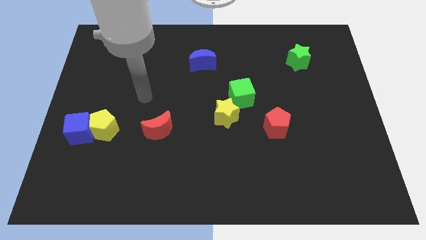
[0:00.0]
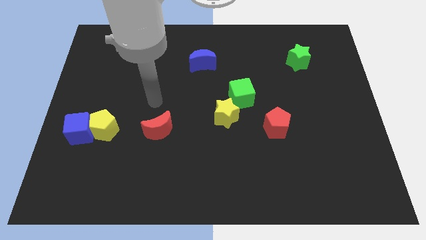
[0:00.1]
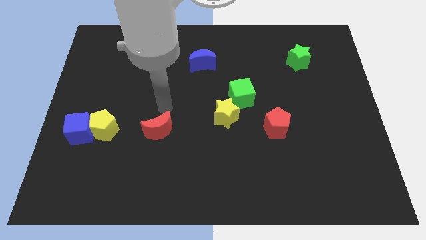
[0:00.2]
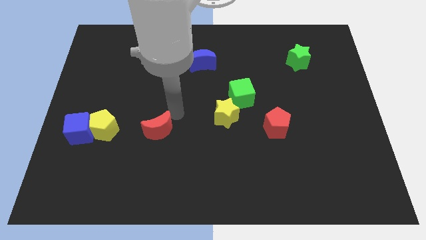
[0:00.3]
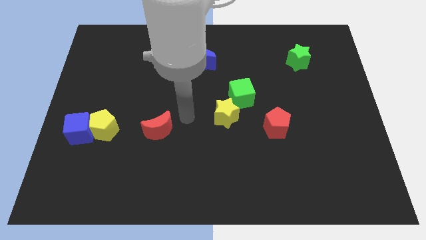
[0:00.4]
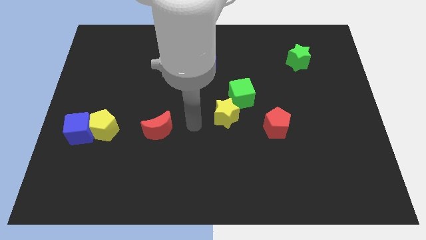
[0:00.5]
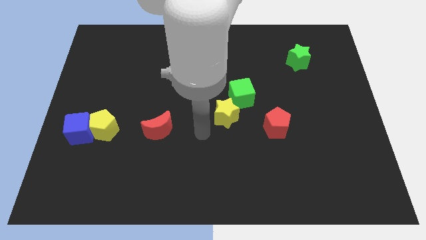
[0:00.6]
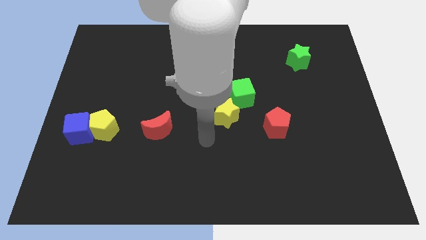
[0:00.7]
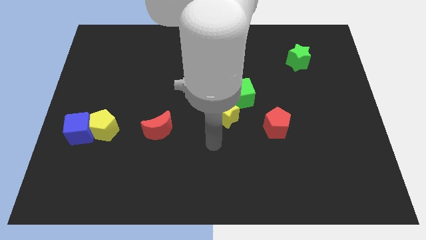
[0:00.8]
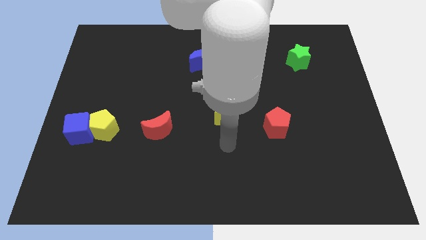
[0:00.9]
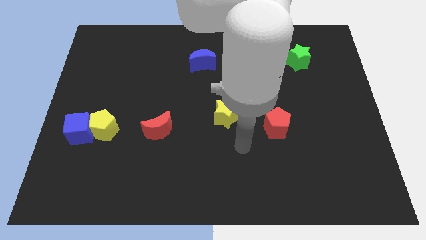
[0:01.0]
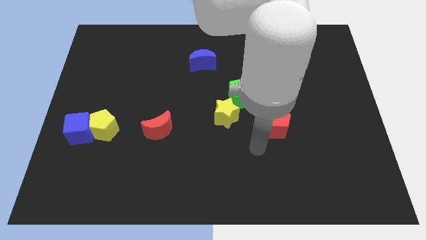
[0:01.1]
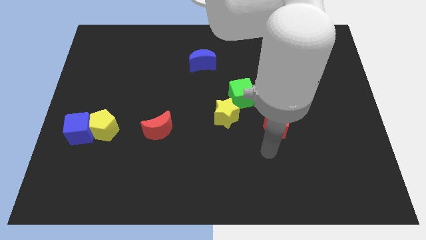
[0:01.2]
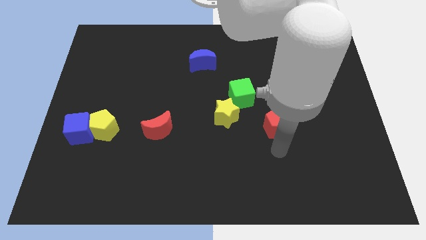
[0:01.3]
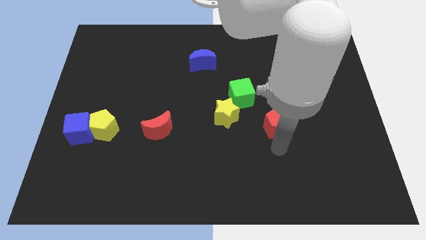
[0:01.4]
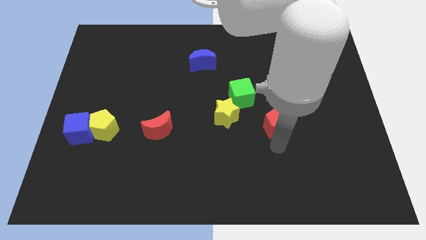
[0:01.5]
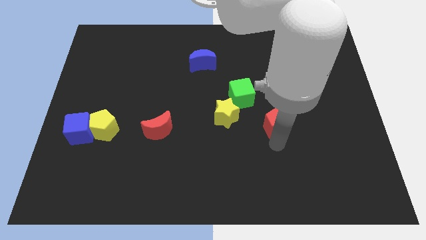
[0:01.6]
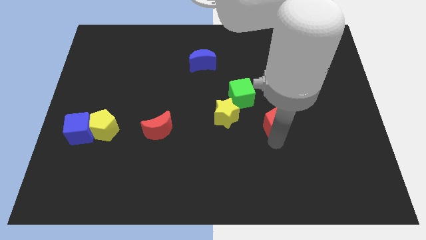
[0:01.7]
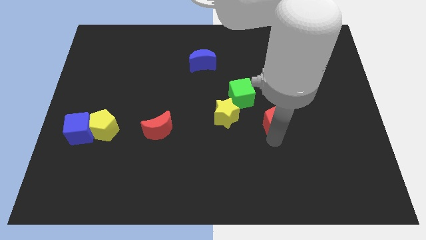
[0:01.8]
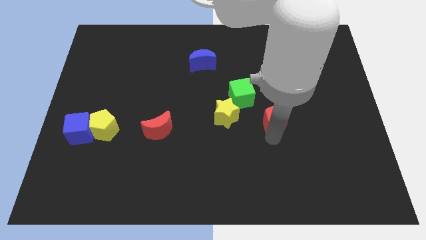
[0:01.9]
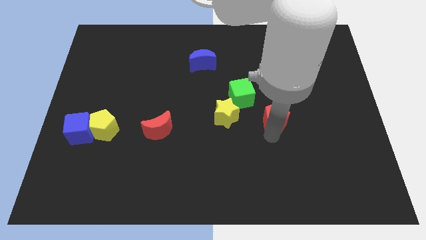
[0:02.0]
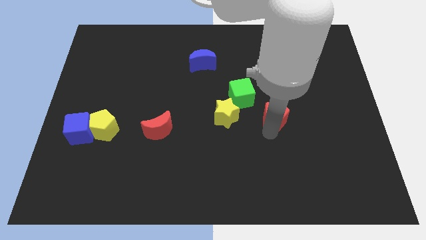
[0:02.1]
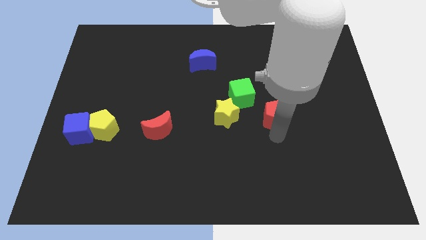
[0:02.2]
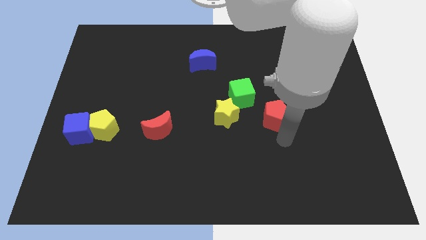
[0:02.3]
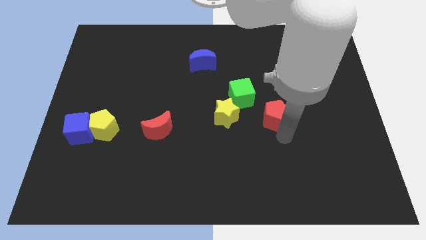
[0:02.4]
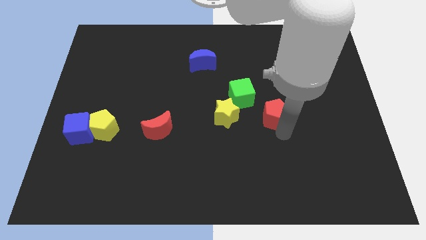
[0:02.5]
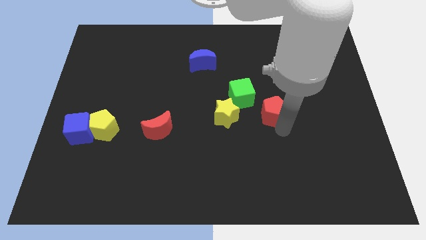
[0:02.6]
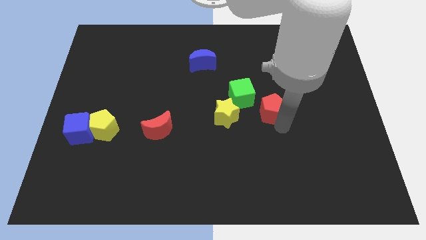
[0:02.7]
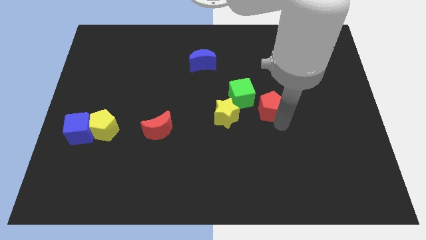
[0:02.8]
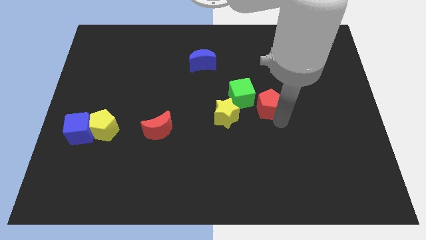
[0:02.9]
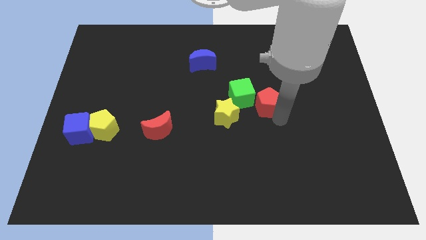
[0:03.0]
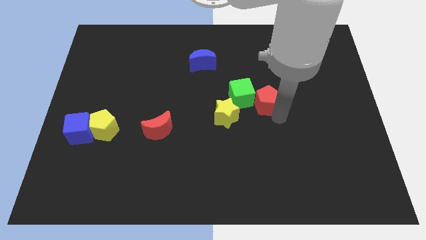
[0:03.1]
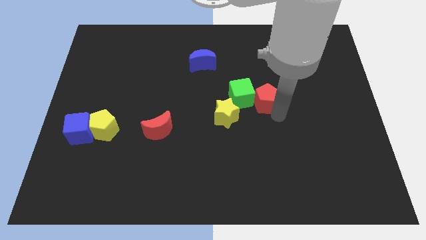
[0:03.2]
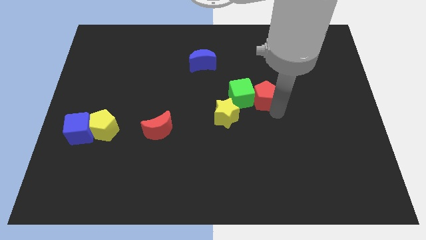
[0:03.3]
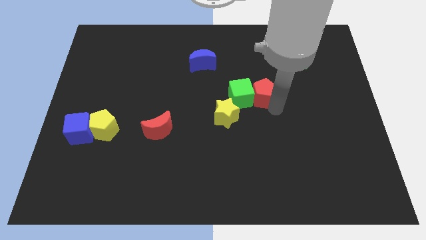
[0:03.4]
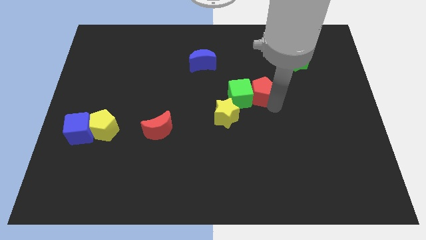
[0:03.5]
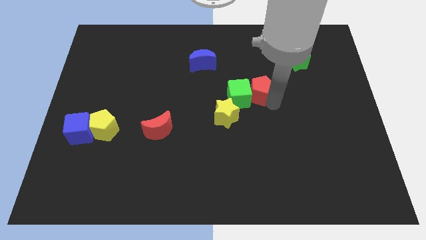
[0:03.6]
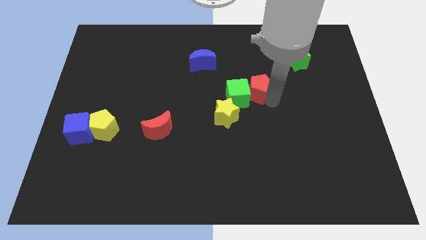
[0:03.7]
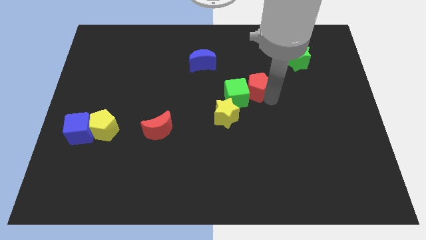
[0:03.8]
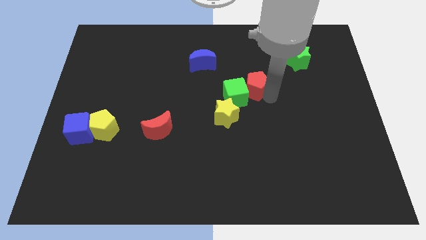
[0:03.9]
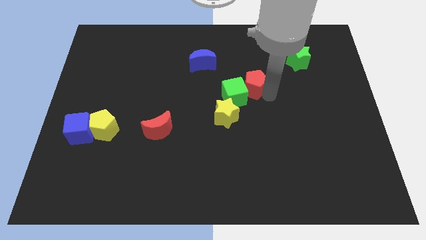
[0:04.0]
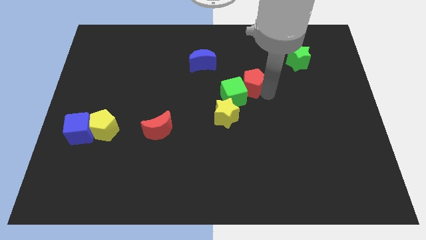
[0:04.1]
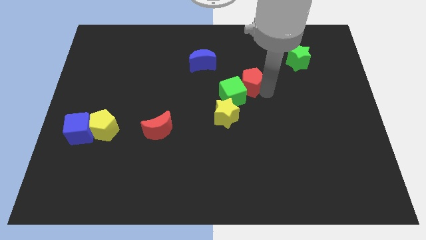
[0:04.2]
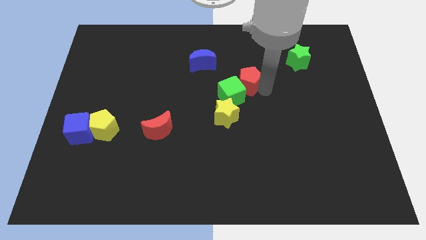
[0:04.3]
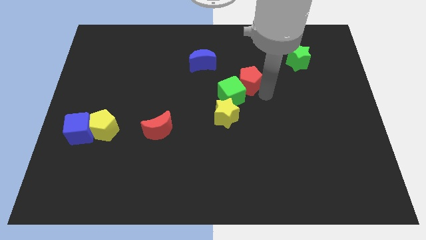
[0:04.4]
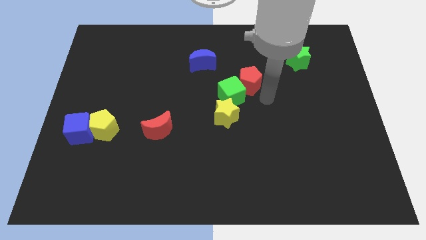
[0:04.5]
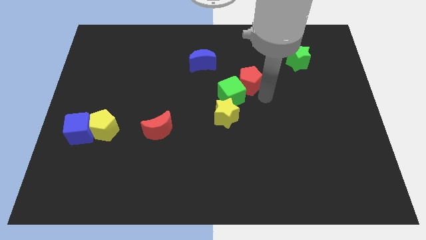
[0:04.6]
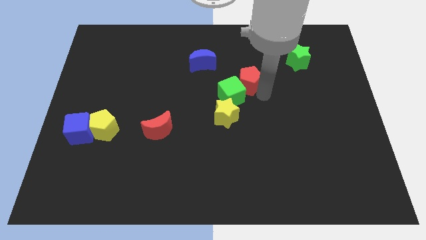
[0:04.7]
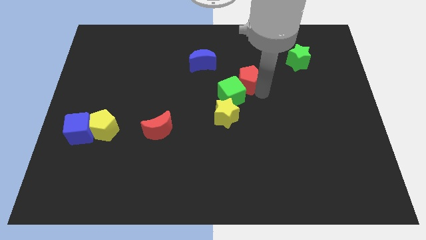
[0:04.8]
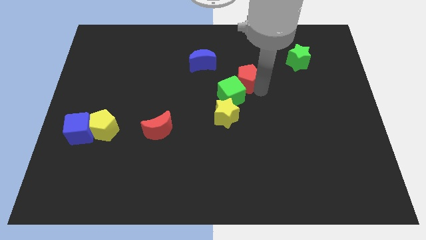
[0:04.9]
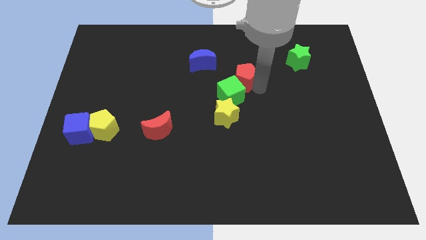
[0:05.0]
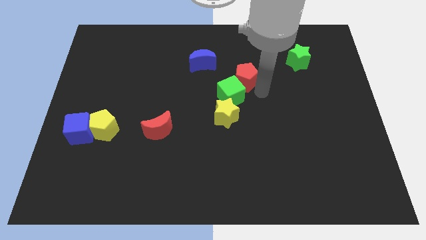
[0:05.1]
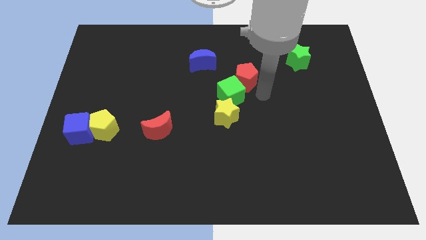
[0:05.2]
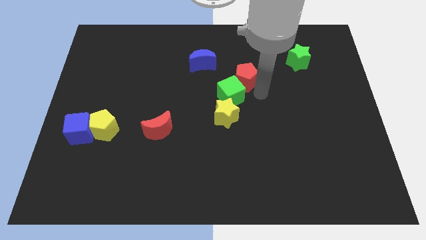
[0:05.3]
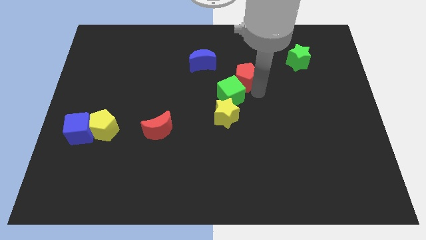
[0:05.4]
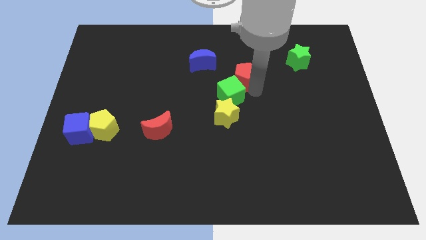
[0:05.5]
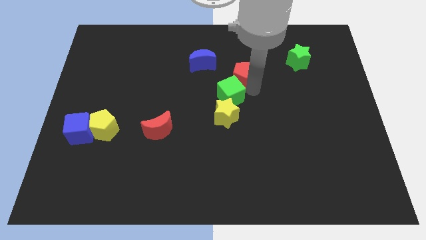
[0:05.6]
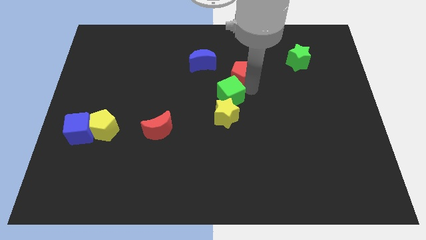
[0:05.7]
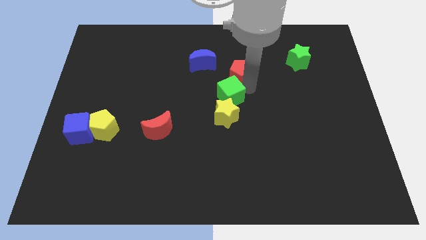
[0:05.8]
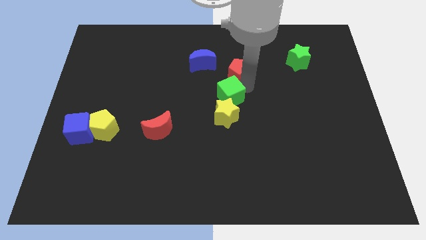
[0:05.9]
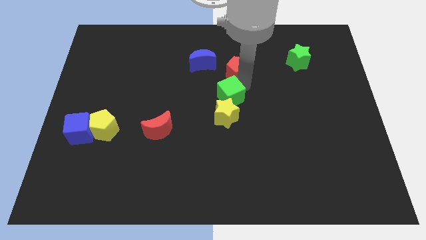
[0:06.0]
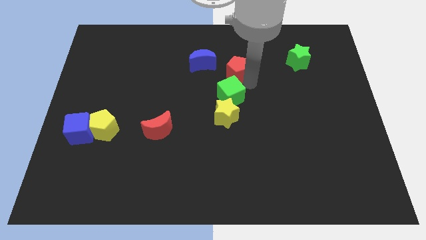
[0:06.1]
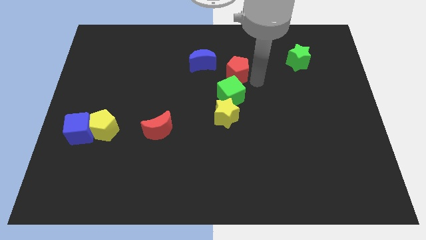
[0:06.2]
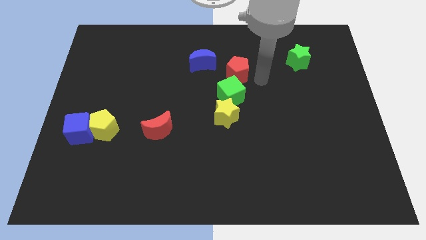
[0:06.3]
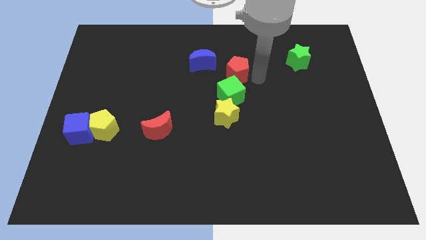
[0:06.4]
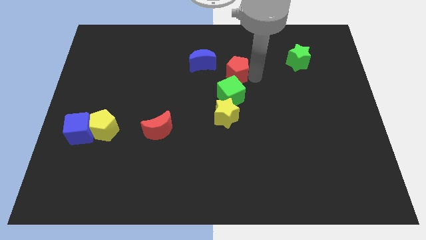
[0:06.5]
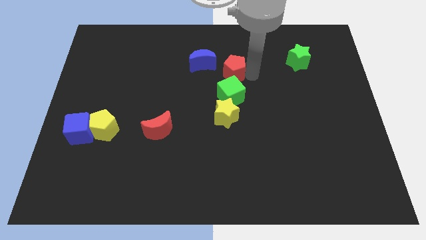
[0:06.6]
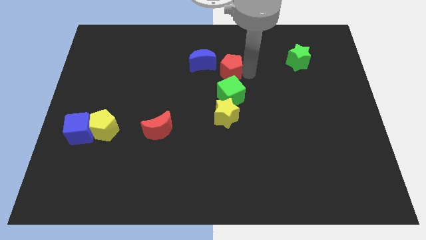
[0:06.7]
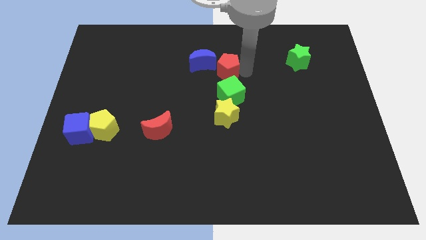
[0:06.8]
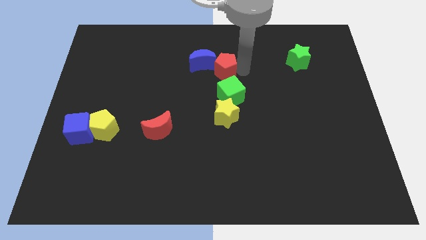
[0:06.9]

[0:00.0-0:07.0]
push the red pentagon towards the blue moon

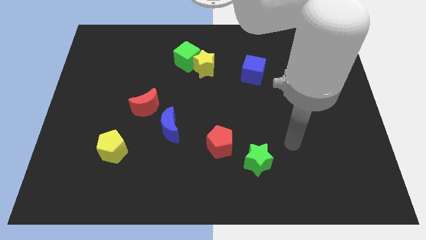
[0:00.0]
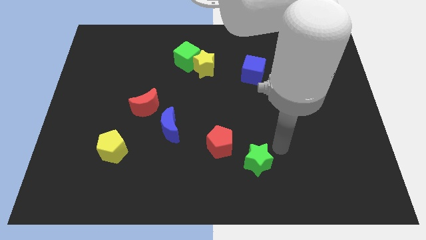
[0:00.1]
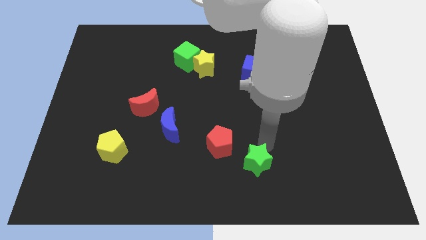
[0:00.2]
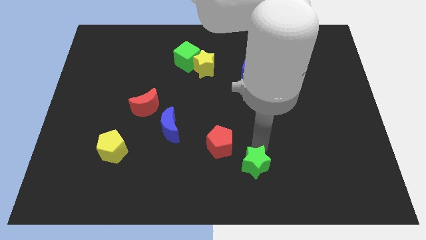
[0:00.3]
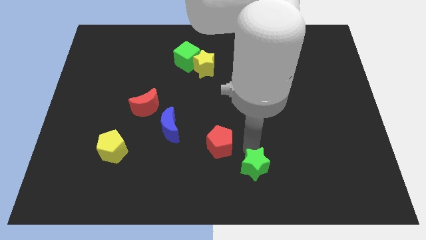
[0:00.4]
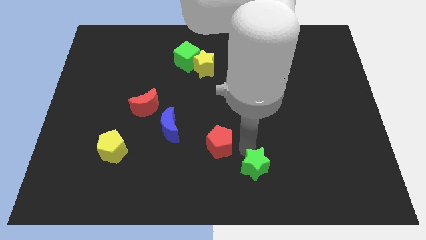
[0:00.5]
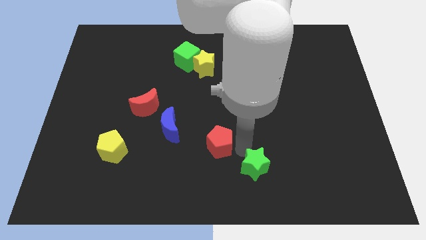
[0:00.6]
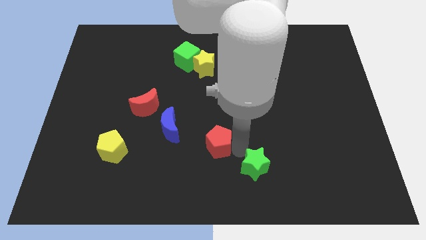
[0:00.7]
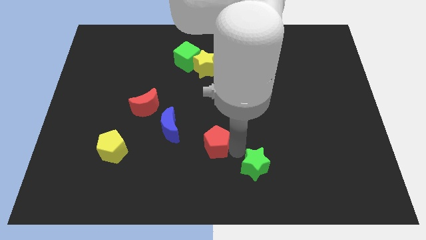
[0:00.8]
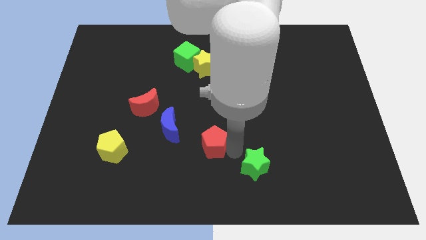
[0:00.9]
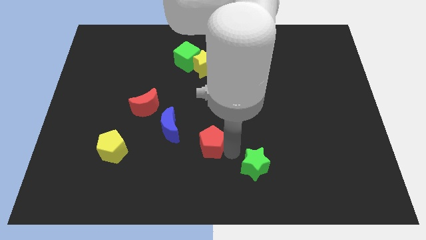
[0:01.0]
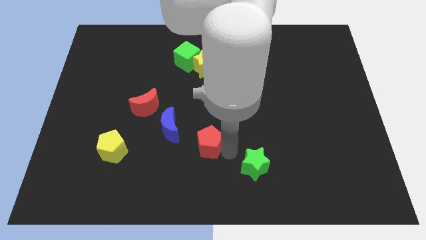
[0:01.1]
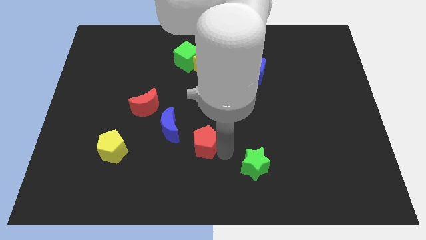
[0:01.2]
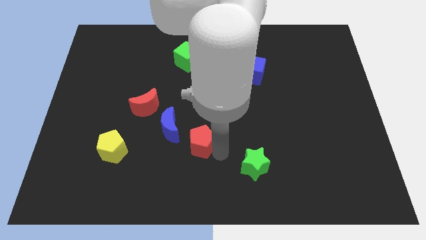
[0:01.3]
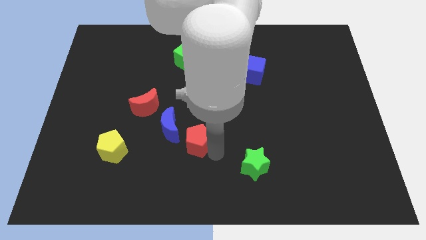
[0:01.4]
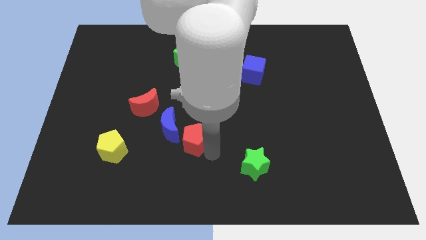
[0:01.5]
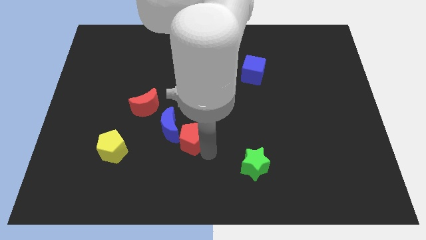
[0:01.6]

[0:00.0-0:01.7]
push the red pentagon next to the blue moon
